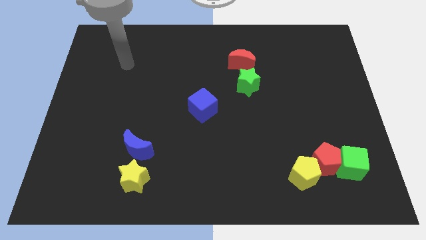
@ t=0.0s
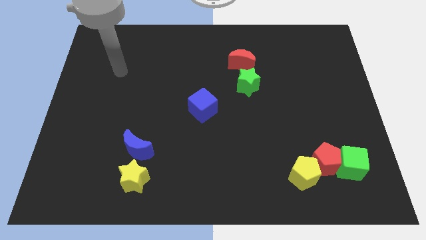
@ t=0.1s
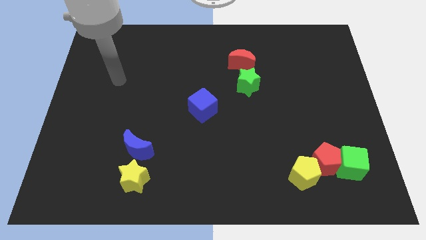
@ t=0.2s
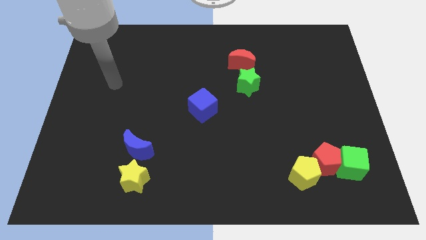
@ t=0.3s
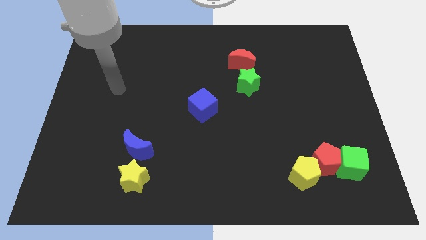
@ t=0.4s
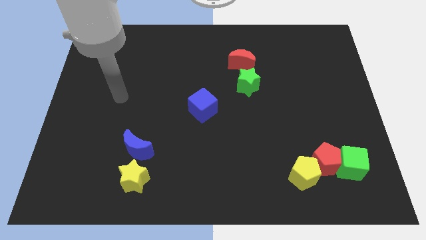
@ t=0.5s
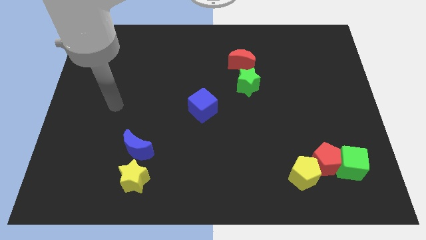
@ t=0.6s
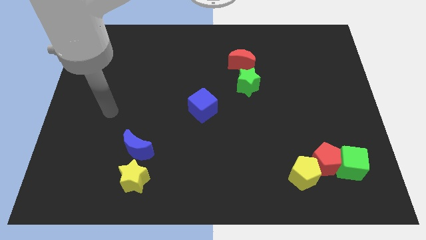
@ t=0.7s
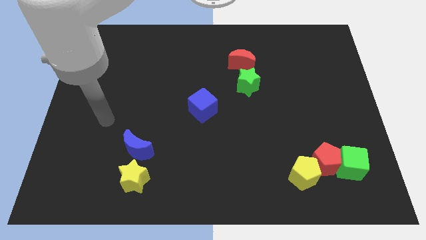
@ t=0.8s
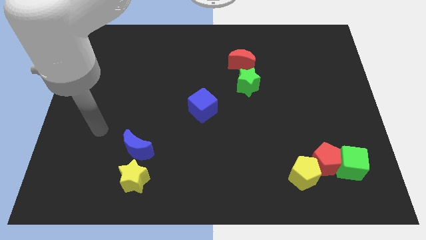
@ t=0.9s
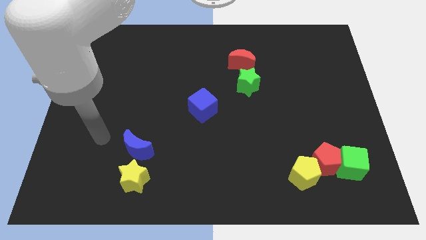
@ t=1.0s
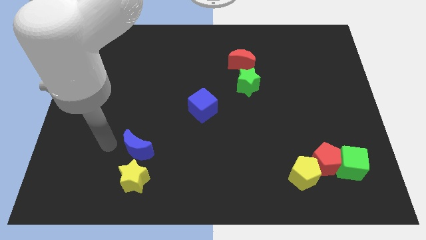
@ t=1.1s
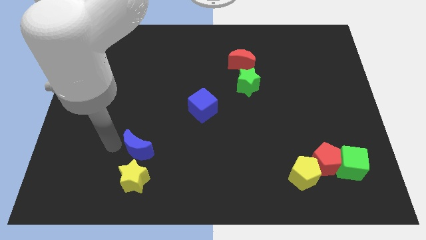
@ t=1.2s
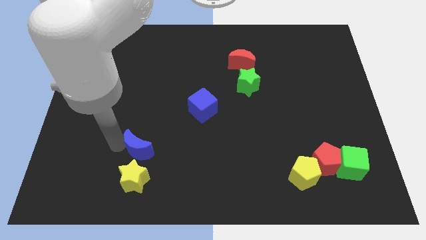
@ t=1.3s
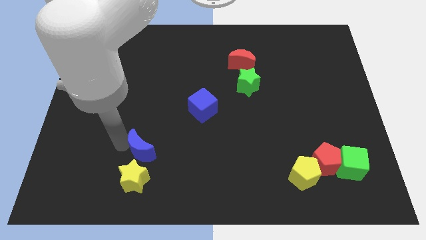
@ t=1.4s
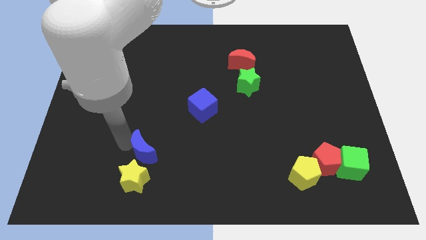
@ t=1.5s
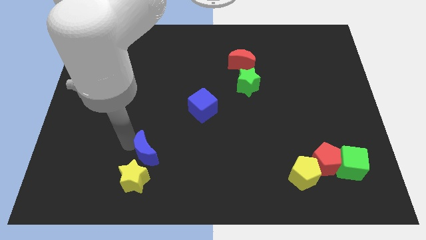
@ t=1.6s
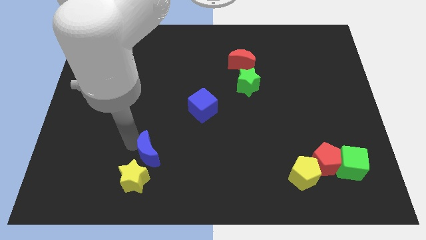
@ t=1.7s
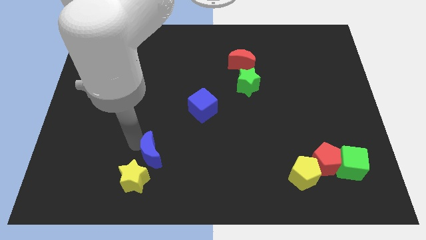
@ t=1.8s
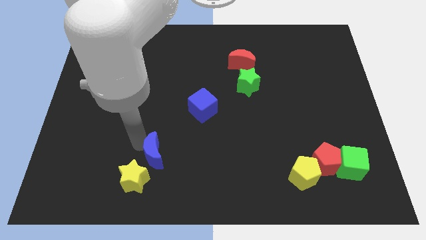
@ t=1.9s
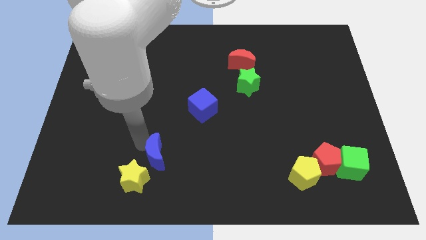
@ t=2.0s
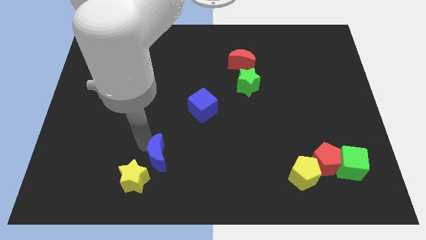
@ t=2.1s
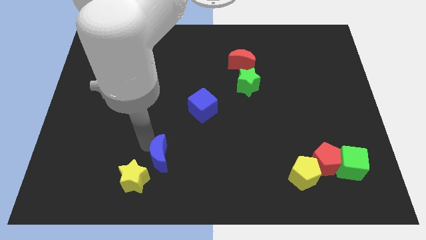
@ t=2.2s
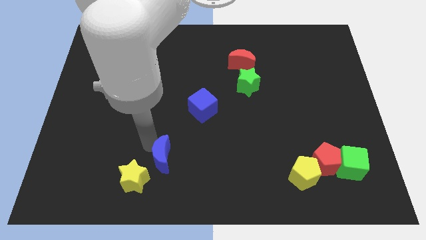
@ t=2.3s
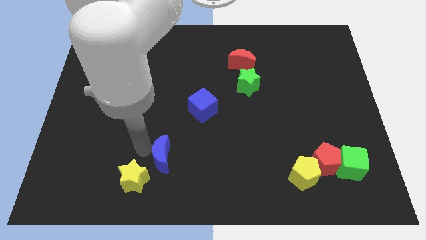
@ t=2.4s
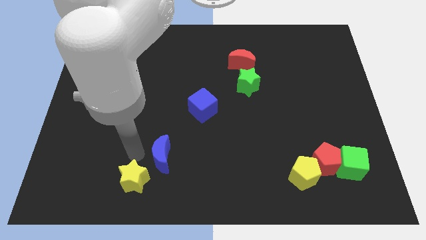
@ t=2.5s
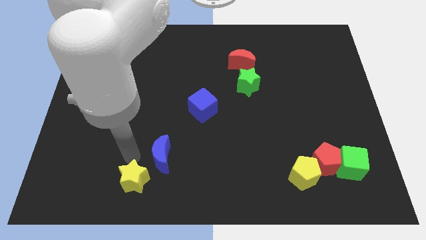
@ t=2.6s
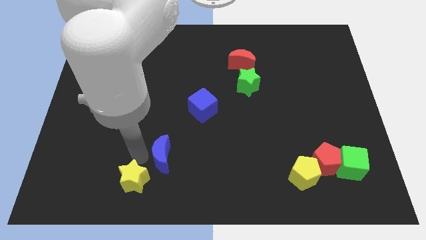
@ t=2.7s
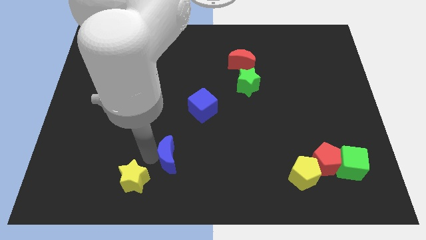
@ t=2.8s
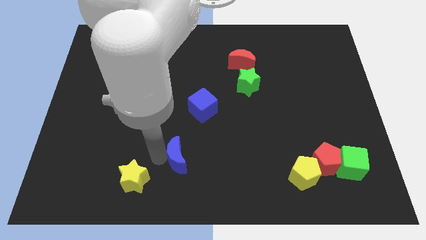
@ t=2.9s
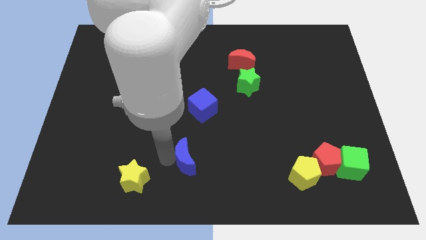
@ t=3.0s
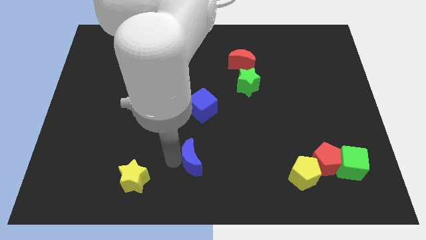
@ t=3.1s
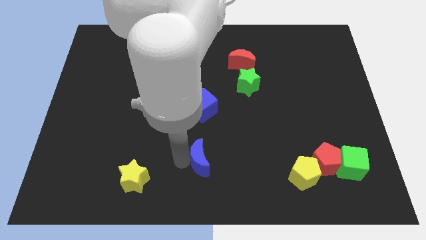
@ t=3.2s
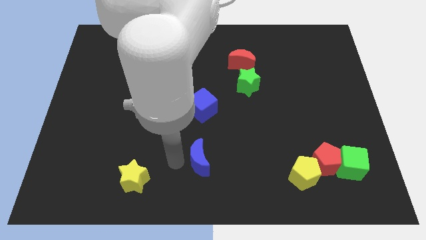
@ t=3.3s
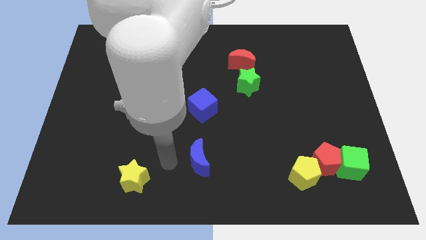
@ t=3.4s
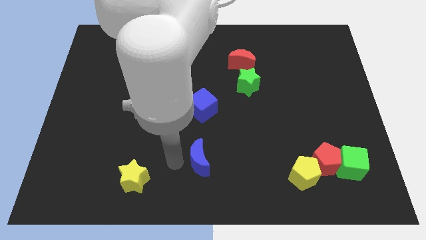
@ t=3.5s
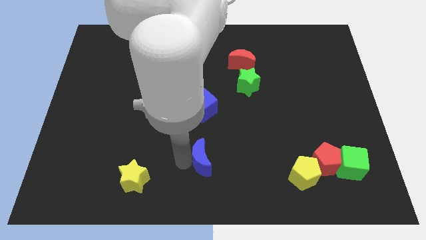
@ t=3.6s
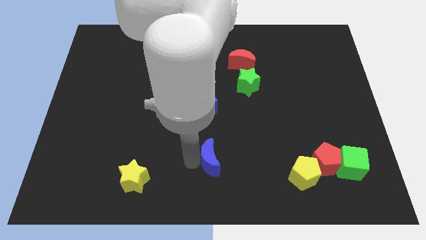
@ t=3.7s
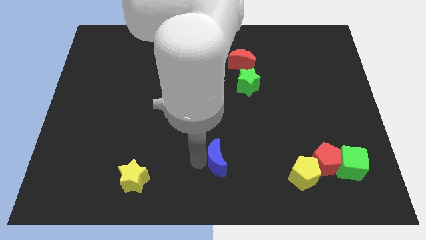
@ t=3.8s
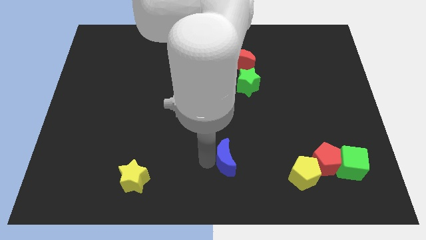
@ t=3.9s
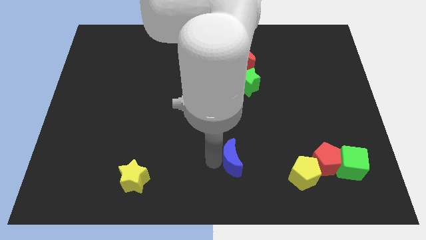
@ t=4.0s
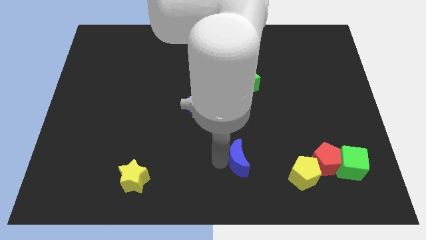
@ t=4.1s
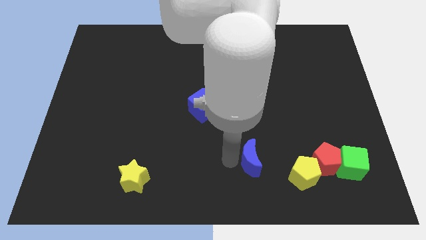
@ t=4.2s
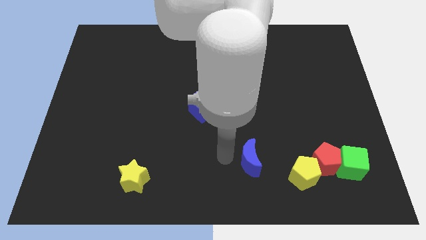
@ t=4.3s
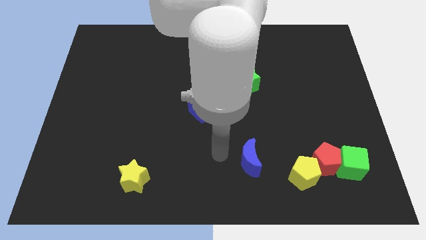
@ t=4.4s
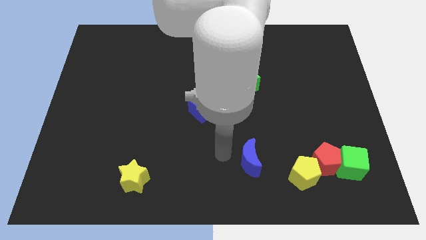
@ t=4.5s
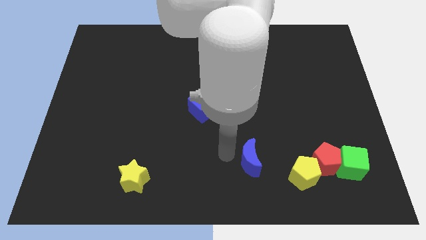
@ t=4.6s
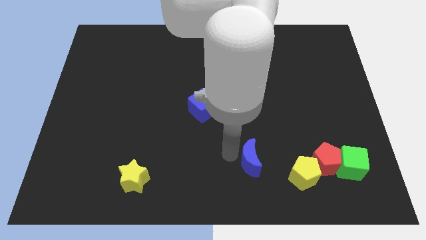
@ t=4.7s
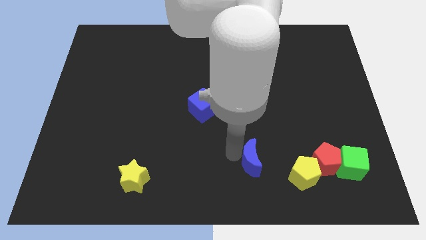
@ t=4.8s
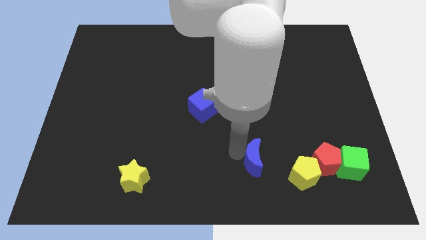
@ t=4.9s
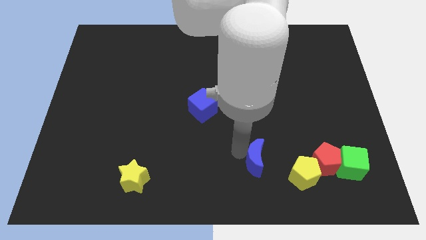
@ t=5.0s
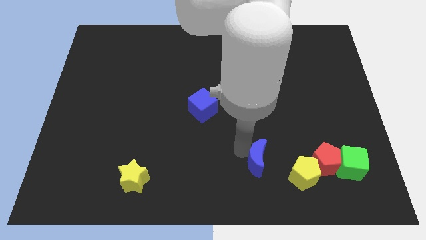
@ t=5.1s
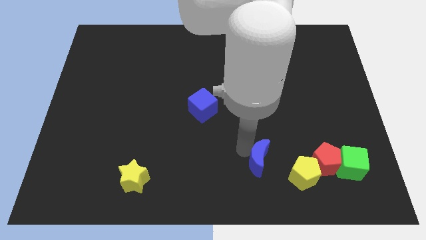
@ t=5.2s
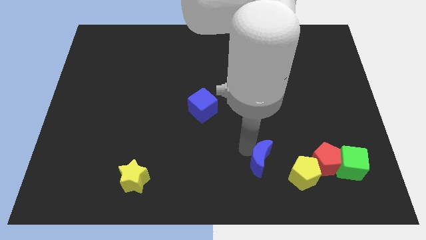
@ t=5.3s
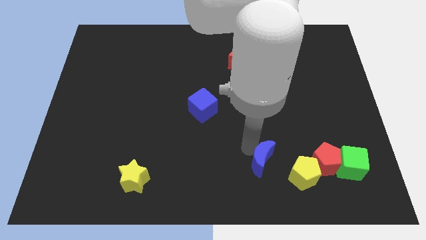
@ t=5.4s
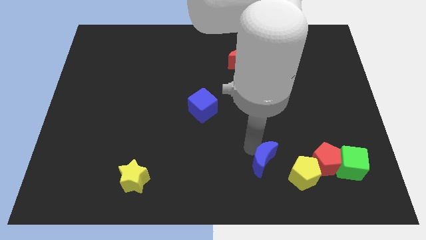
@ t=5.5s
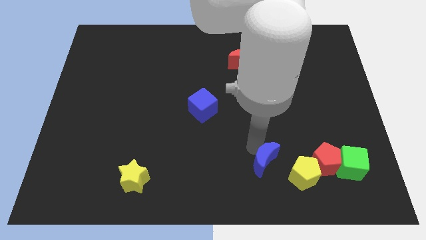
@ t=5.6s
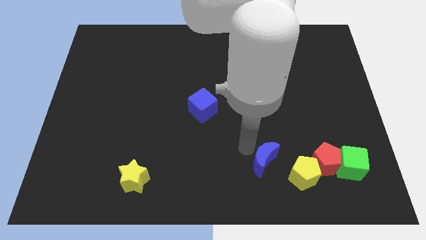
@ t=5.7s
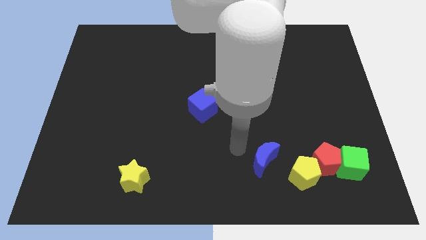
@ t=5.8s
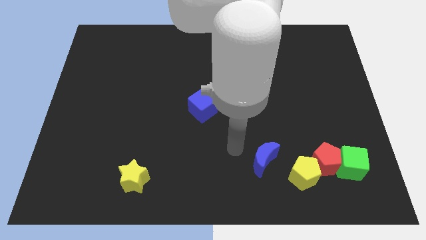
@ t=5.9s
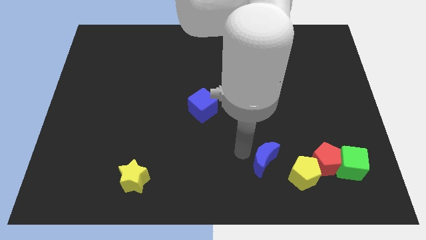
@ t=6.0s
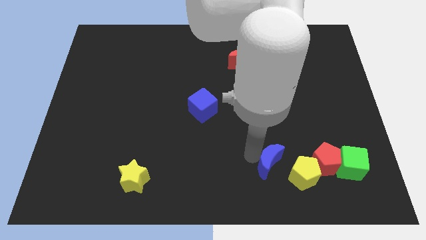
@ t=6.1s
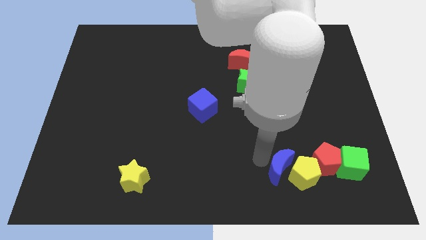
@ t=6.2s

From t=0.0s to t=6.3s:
put the blue moon towards the yellow pentagon

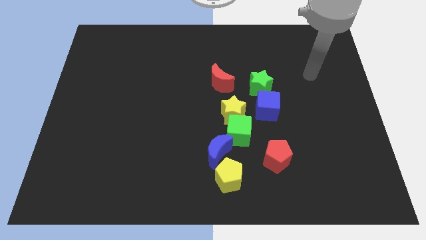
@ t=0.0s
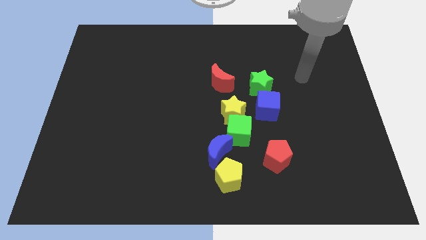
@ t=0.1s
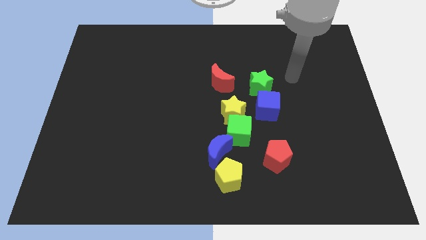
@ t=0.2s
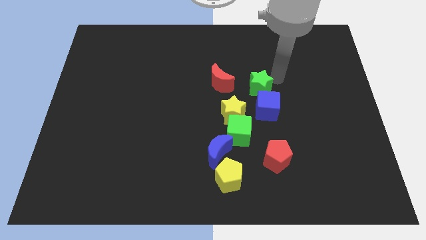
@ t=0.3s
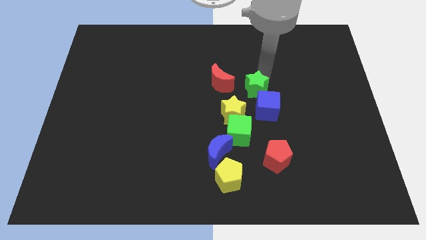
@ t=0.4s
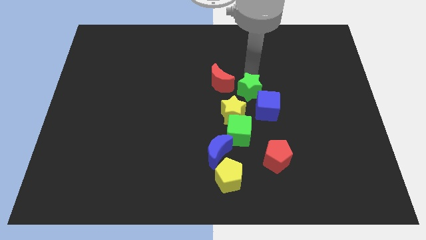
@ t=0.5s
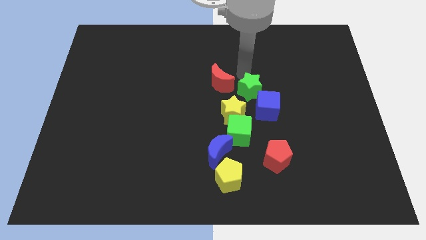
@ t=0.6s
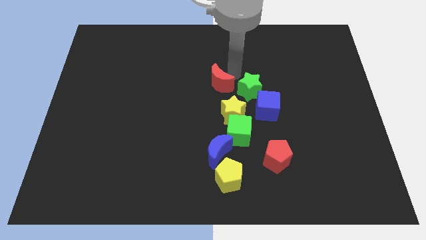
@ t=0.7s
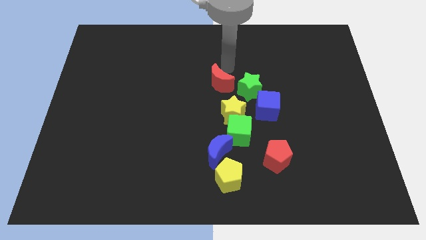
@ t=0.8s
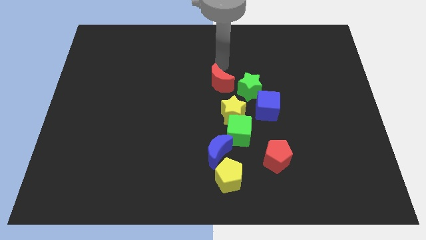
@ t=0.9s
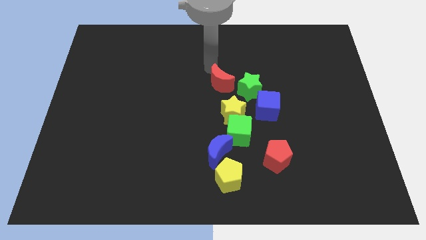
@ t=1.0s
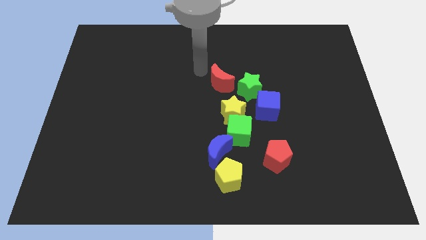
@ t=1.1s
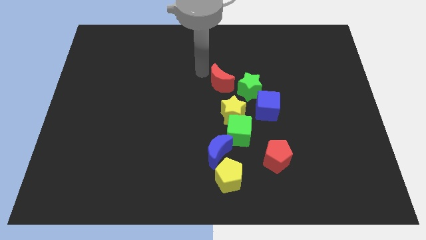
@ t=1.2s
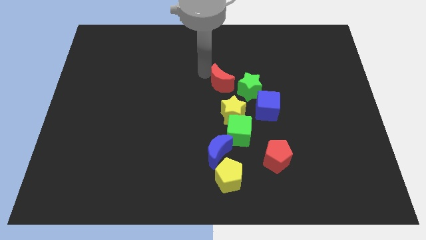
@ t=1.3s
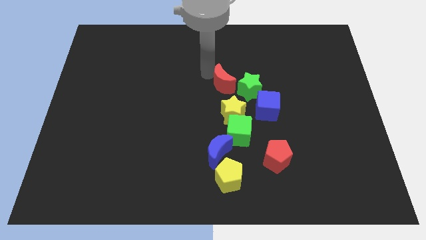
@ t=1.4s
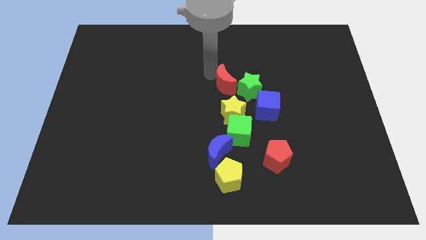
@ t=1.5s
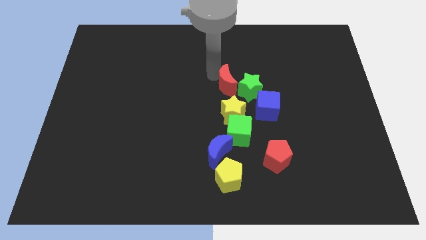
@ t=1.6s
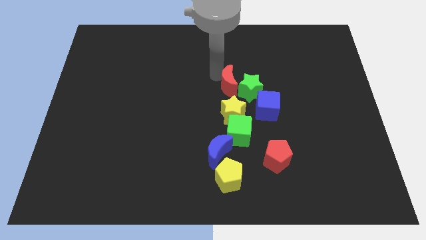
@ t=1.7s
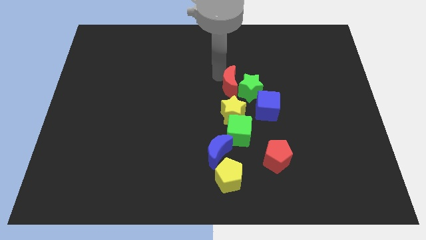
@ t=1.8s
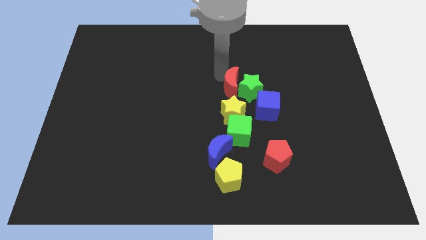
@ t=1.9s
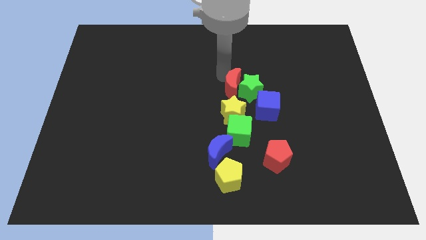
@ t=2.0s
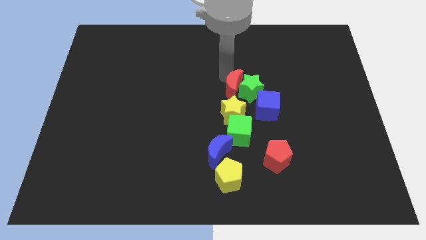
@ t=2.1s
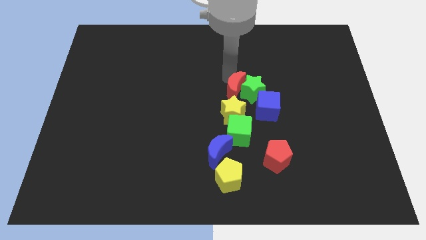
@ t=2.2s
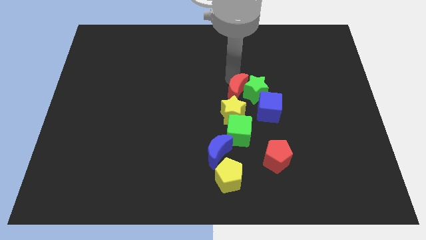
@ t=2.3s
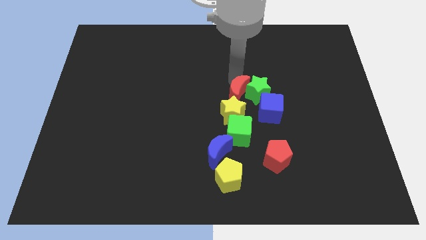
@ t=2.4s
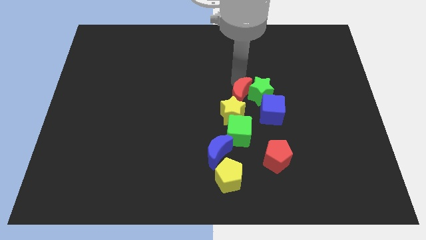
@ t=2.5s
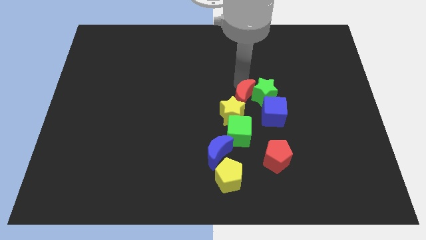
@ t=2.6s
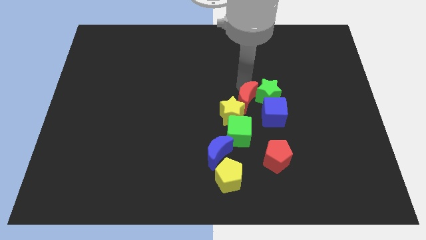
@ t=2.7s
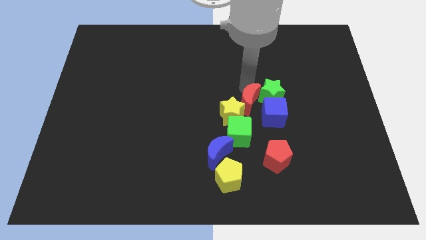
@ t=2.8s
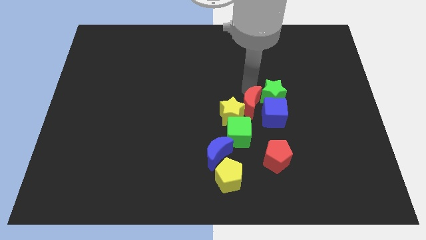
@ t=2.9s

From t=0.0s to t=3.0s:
move the red moon close to the blue cube
